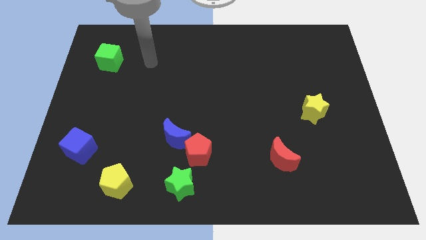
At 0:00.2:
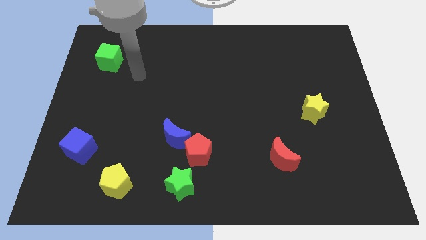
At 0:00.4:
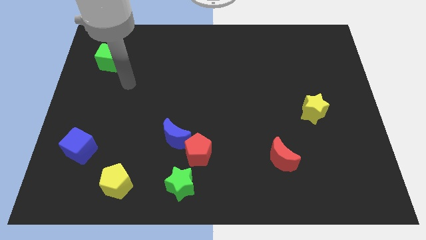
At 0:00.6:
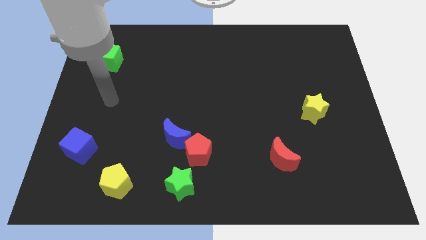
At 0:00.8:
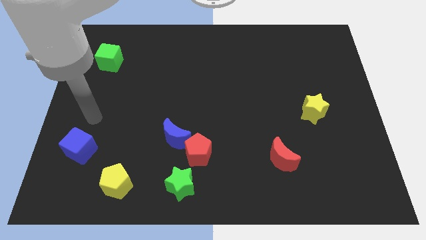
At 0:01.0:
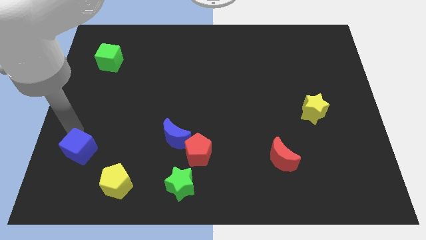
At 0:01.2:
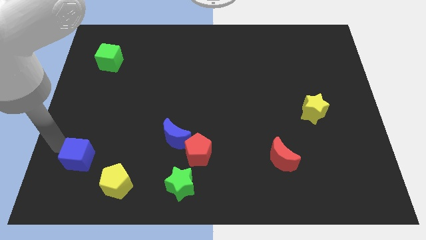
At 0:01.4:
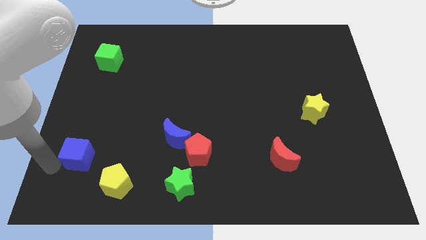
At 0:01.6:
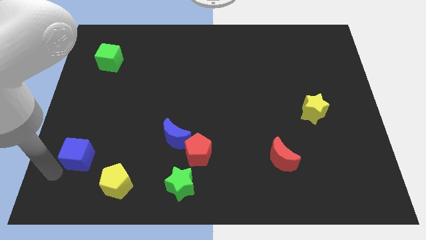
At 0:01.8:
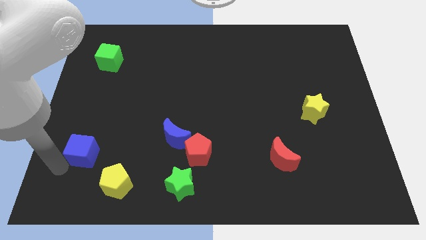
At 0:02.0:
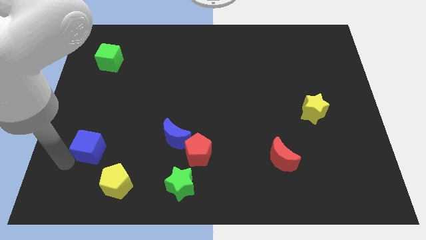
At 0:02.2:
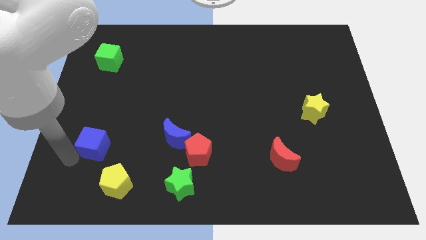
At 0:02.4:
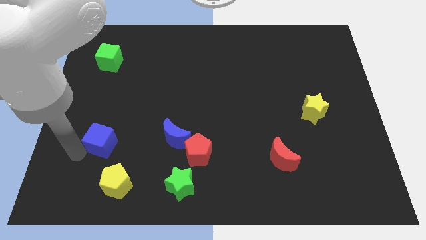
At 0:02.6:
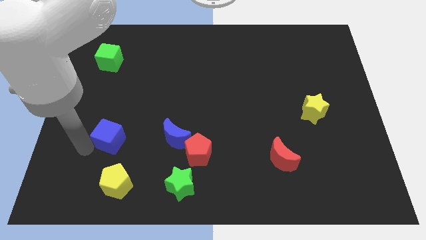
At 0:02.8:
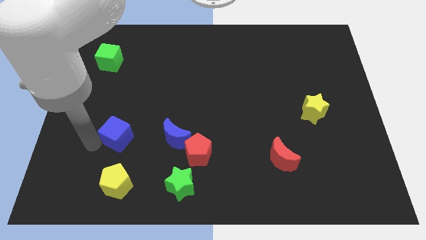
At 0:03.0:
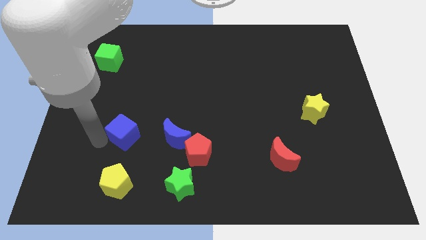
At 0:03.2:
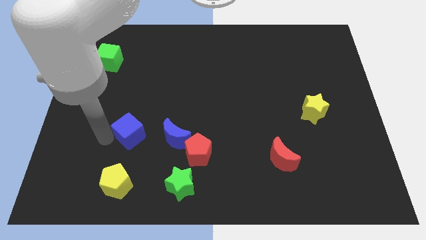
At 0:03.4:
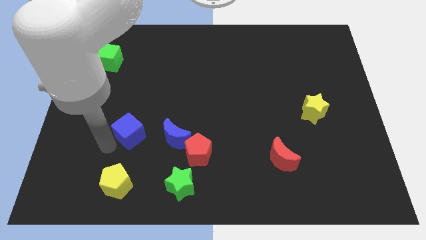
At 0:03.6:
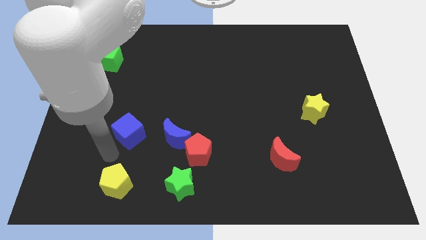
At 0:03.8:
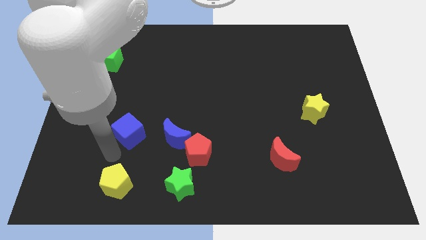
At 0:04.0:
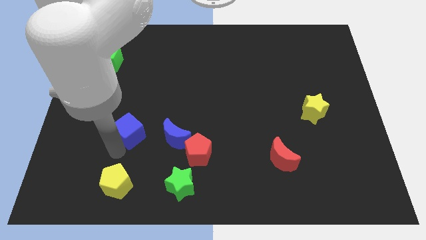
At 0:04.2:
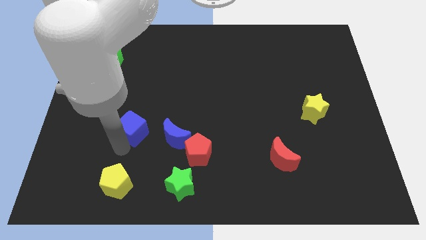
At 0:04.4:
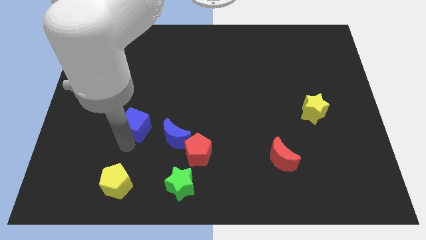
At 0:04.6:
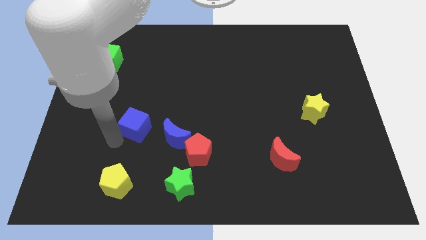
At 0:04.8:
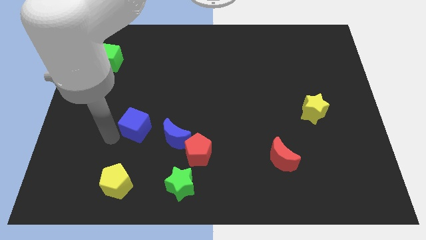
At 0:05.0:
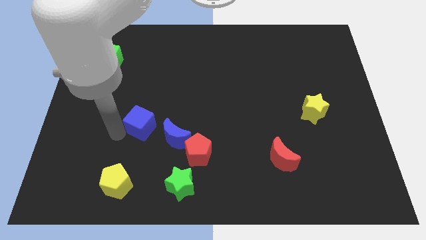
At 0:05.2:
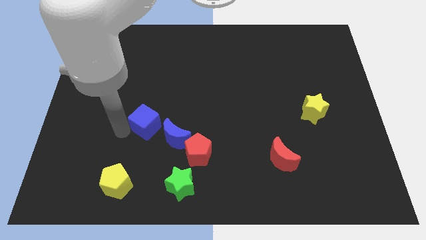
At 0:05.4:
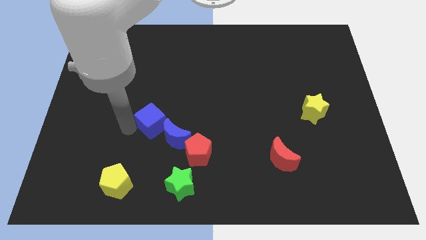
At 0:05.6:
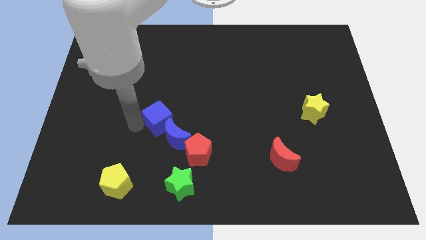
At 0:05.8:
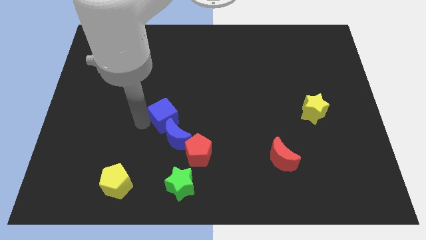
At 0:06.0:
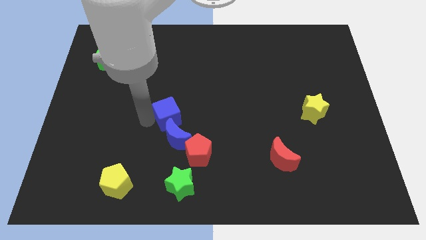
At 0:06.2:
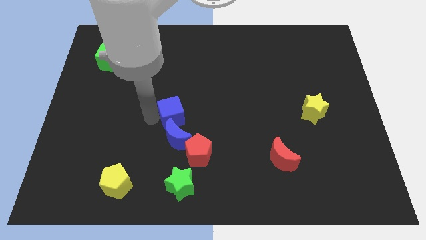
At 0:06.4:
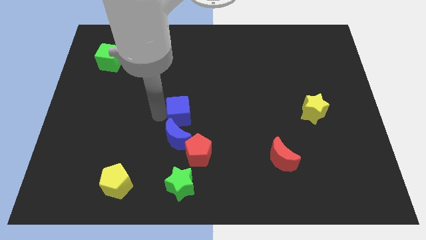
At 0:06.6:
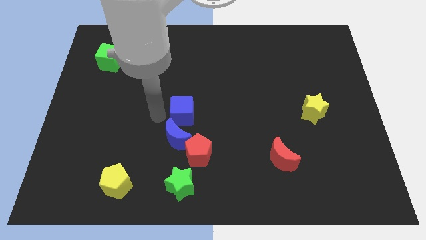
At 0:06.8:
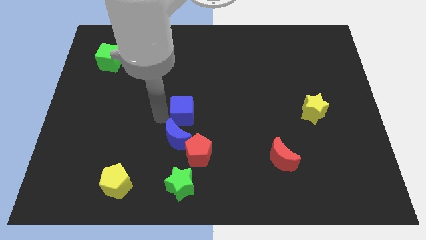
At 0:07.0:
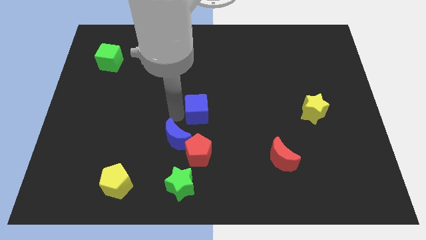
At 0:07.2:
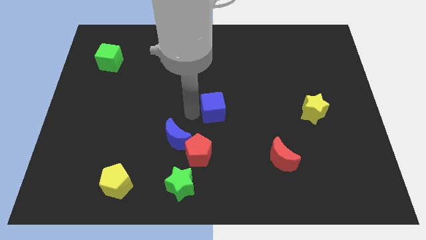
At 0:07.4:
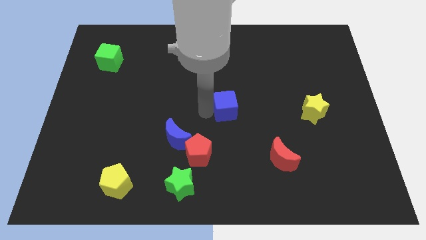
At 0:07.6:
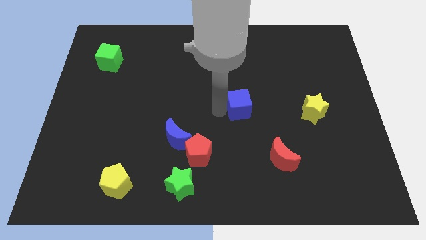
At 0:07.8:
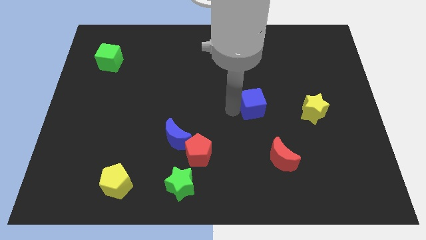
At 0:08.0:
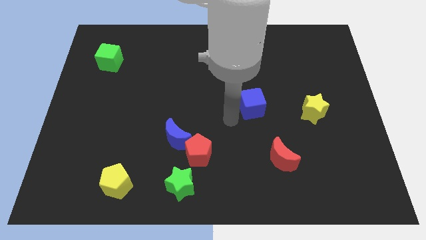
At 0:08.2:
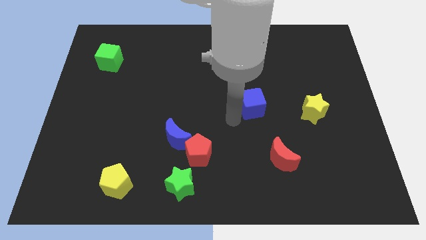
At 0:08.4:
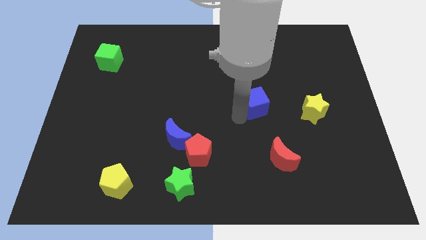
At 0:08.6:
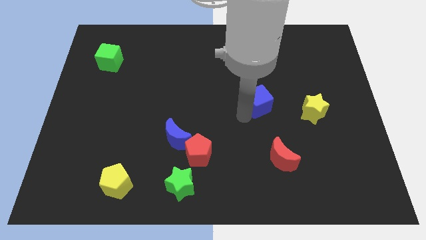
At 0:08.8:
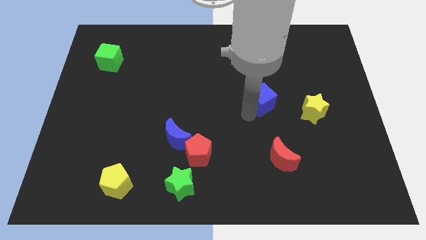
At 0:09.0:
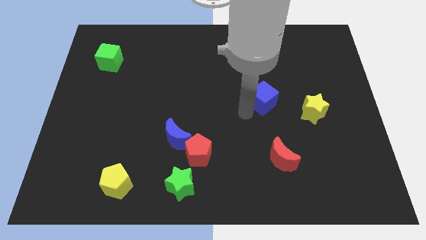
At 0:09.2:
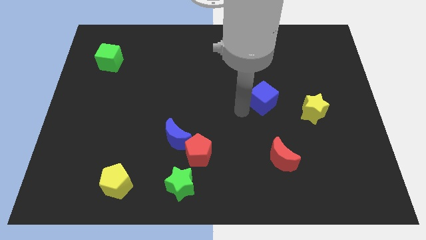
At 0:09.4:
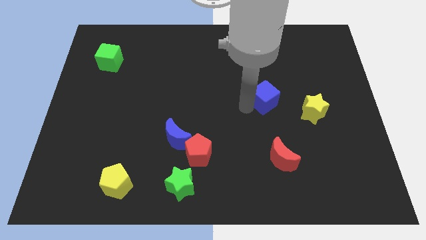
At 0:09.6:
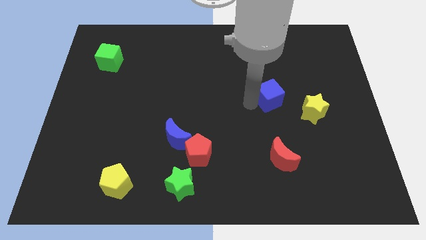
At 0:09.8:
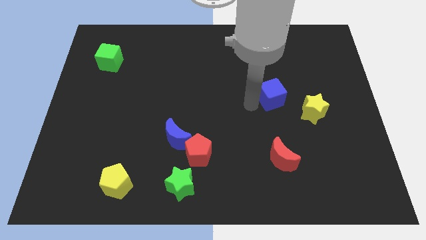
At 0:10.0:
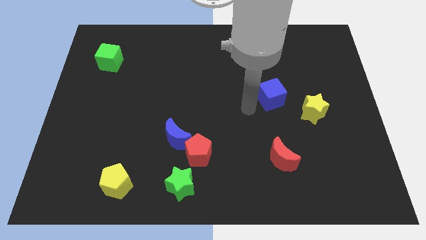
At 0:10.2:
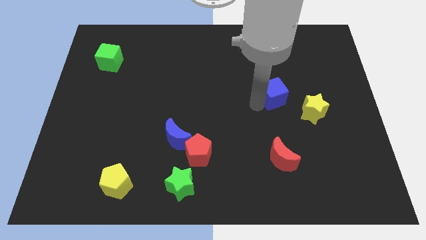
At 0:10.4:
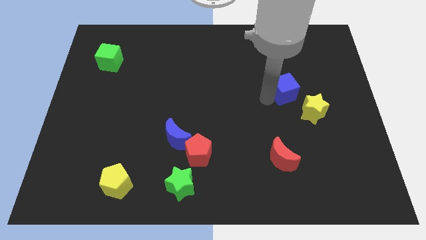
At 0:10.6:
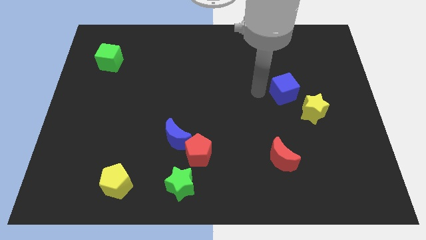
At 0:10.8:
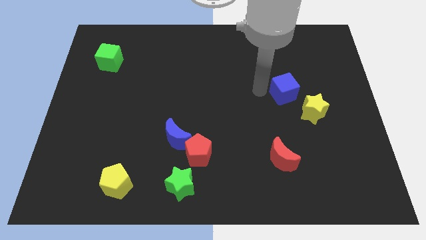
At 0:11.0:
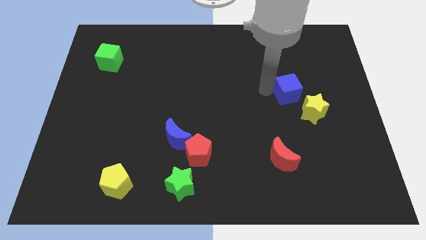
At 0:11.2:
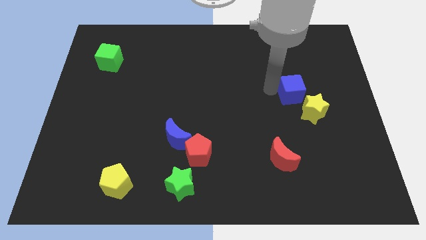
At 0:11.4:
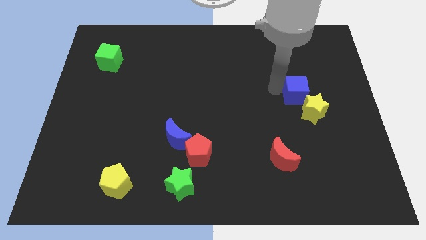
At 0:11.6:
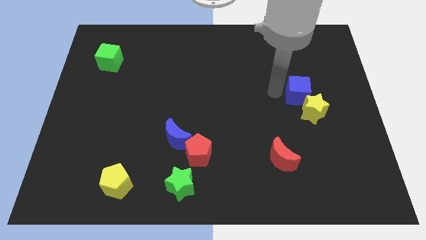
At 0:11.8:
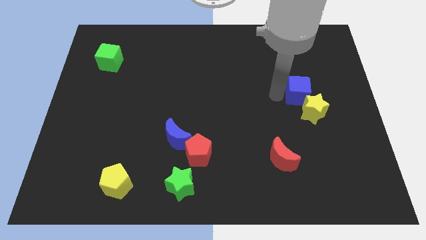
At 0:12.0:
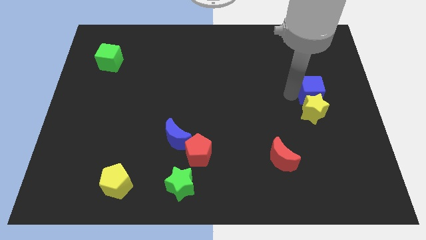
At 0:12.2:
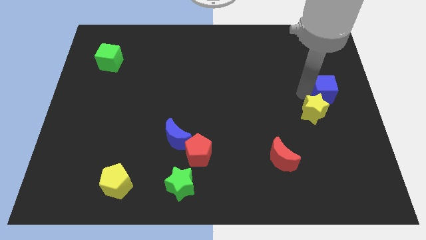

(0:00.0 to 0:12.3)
move the blue cube to the right side
